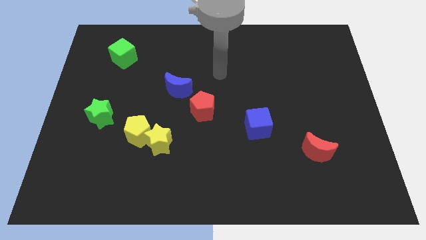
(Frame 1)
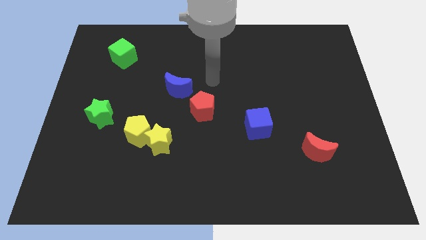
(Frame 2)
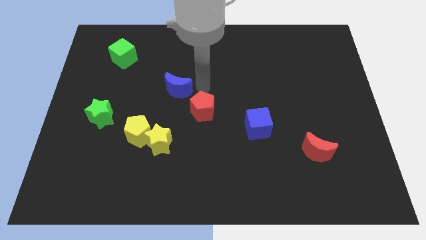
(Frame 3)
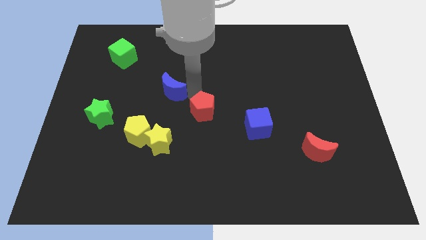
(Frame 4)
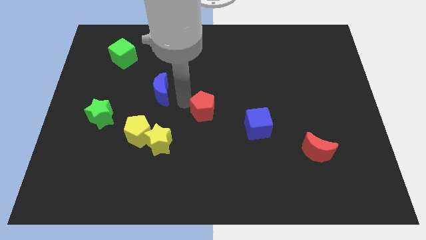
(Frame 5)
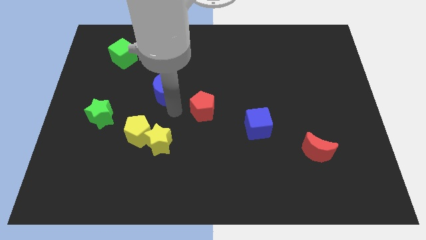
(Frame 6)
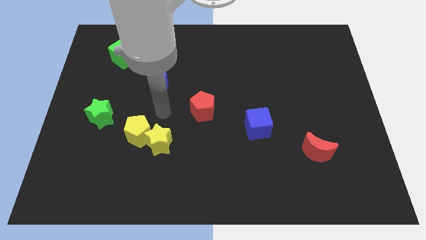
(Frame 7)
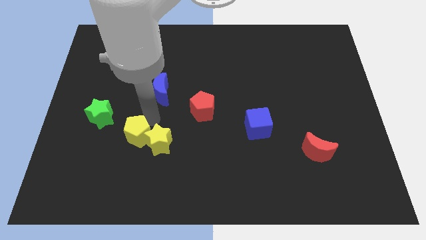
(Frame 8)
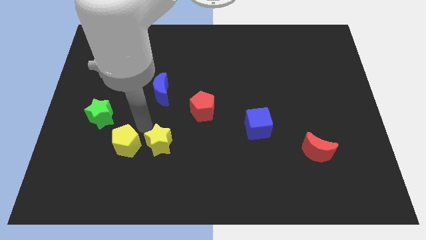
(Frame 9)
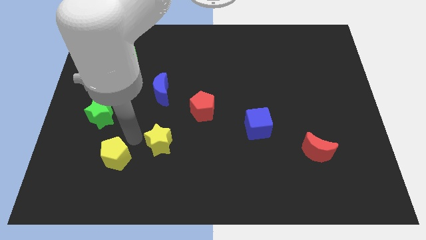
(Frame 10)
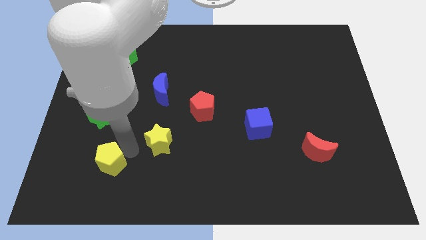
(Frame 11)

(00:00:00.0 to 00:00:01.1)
move the yellow star away from the yellow pentagon

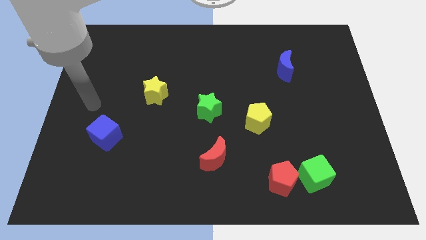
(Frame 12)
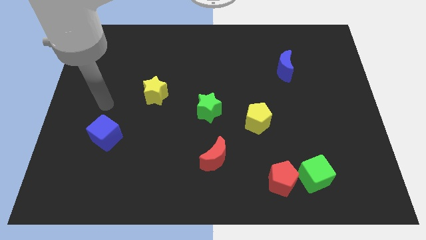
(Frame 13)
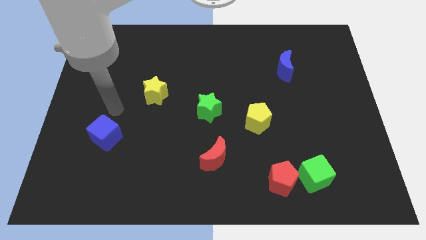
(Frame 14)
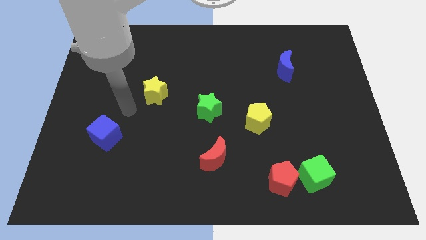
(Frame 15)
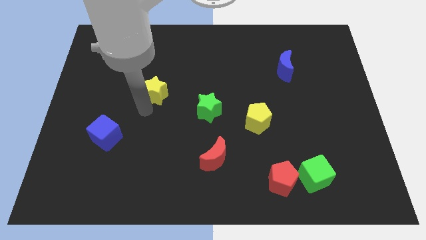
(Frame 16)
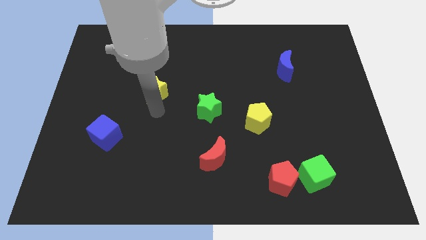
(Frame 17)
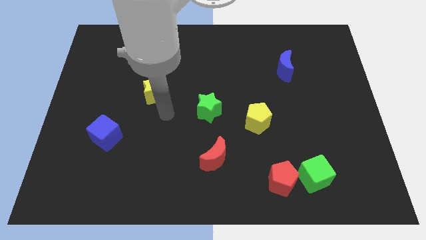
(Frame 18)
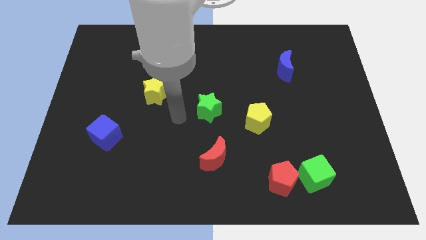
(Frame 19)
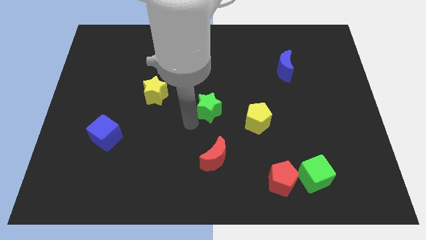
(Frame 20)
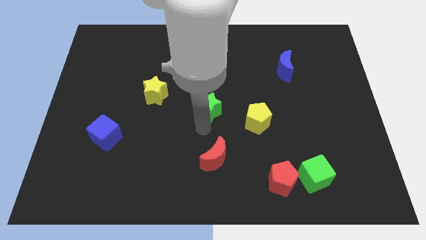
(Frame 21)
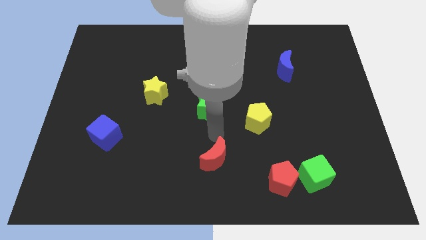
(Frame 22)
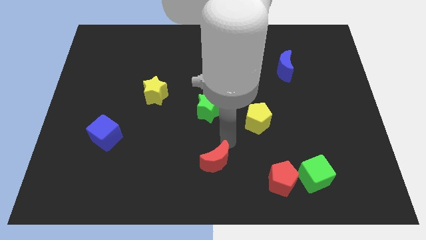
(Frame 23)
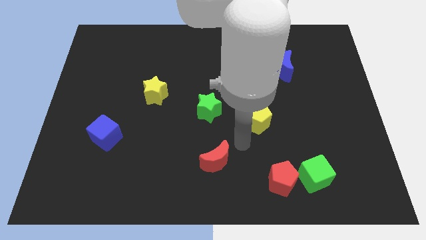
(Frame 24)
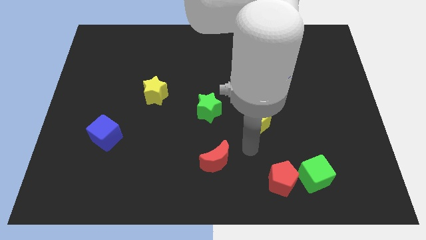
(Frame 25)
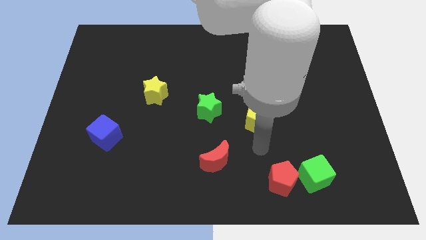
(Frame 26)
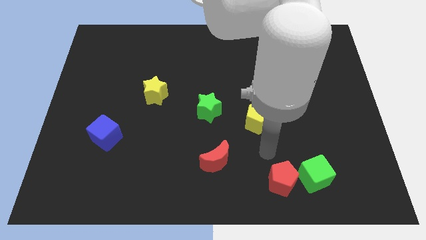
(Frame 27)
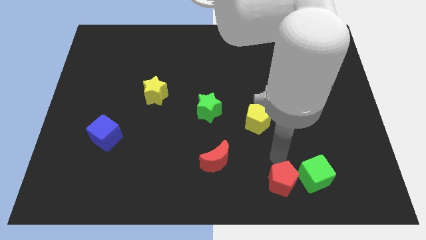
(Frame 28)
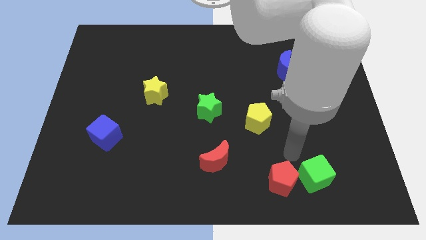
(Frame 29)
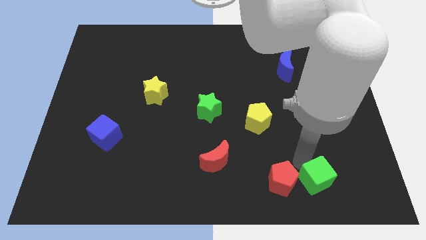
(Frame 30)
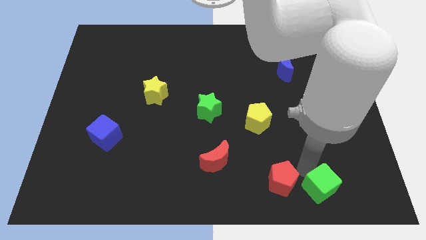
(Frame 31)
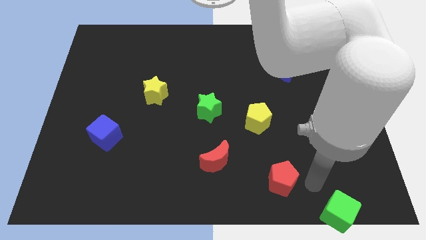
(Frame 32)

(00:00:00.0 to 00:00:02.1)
move the red pentagon away from the green cube

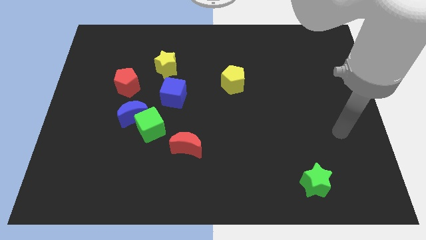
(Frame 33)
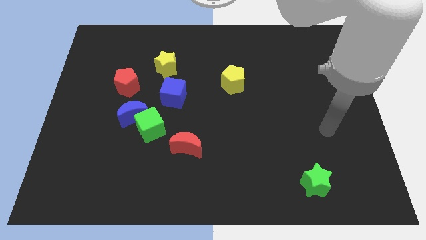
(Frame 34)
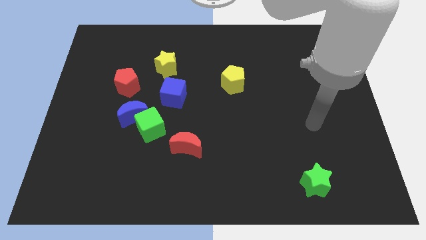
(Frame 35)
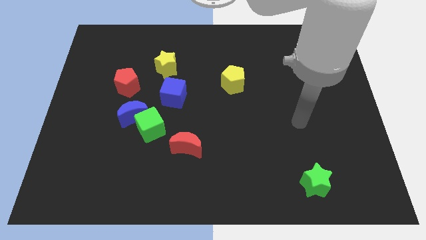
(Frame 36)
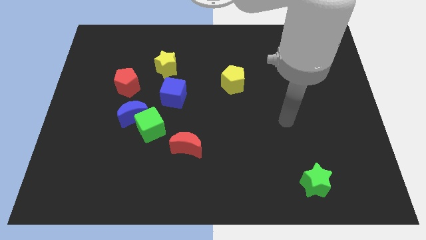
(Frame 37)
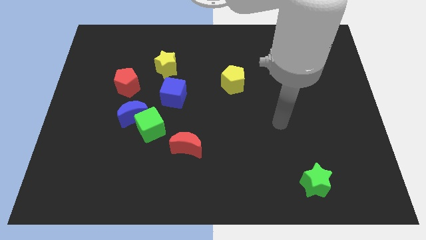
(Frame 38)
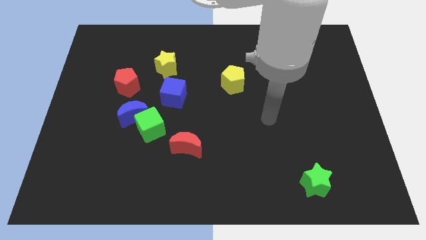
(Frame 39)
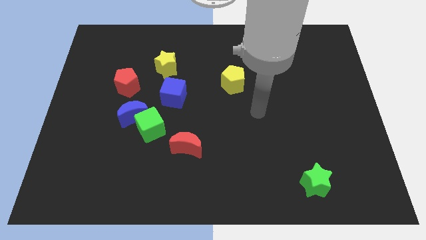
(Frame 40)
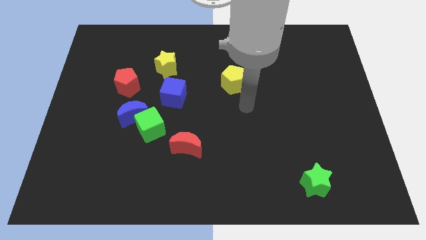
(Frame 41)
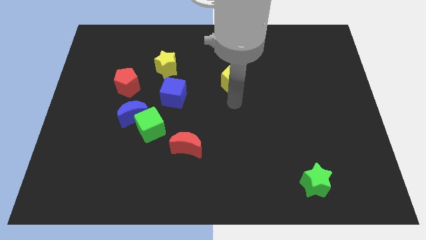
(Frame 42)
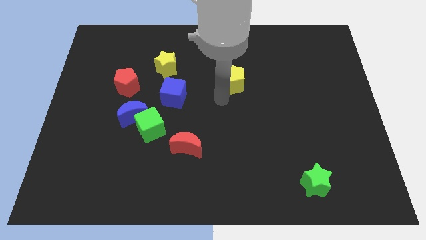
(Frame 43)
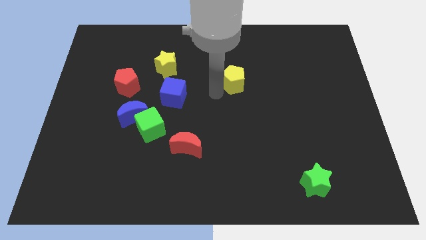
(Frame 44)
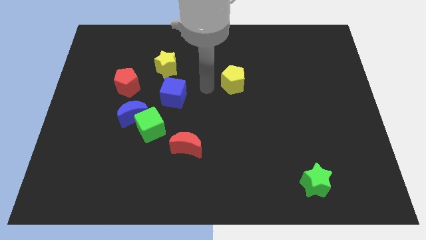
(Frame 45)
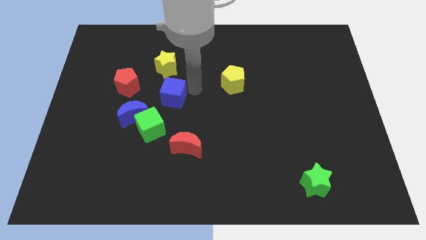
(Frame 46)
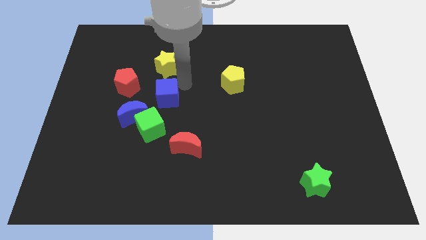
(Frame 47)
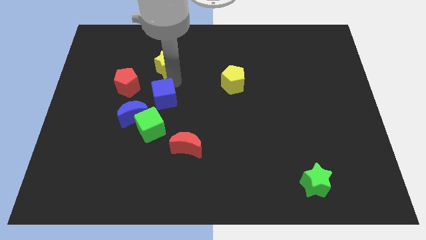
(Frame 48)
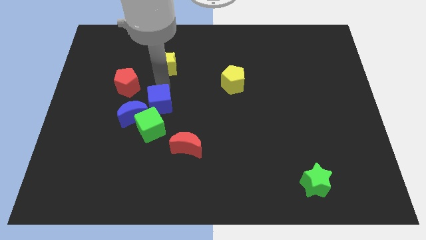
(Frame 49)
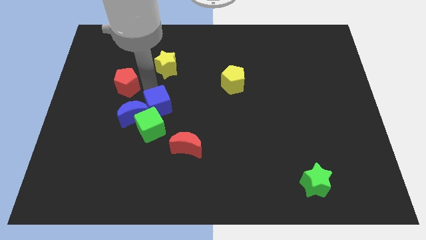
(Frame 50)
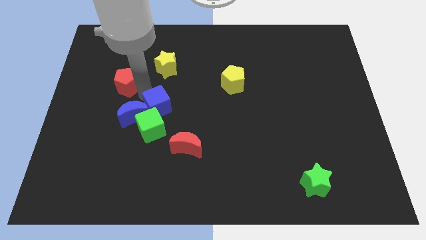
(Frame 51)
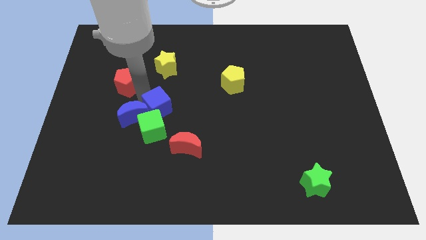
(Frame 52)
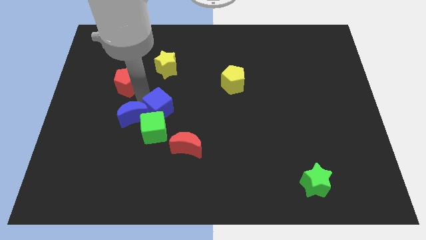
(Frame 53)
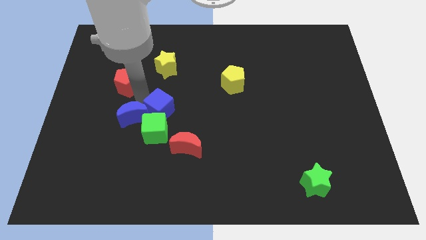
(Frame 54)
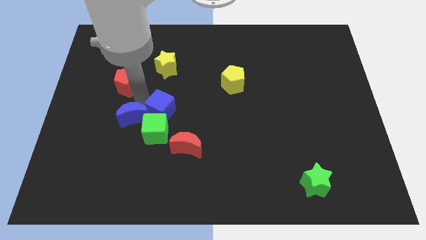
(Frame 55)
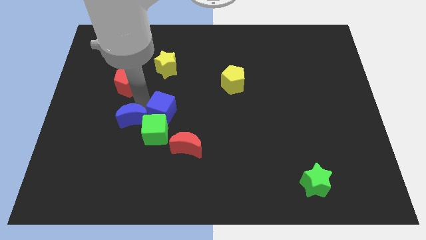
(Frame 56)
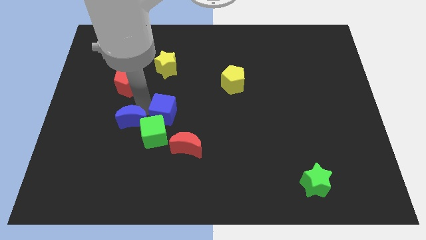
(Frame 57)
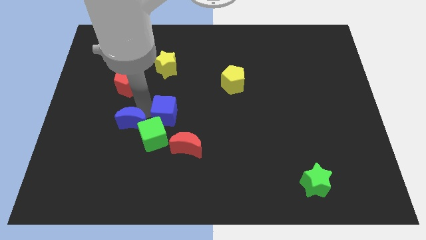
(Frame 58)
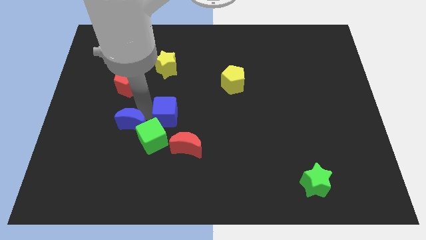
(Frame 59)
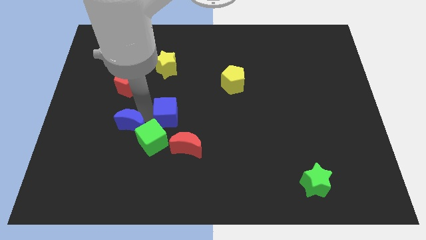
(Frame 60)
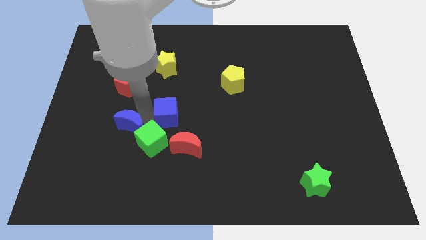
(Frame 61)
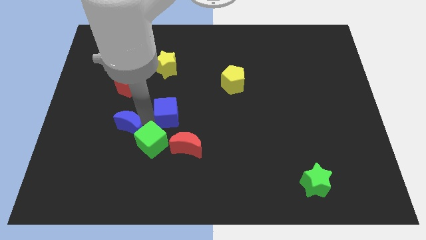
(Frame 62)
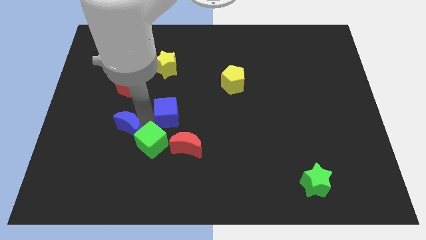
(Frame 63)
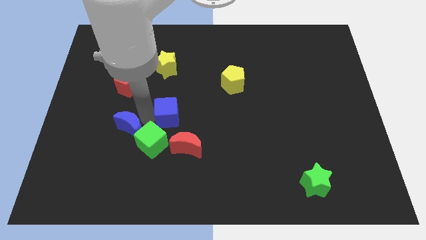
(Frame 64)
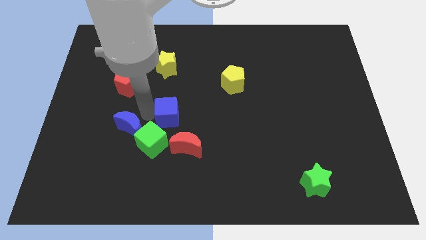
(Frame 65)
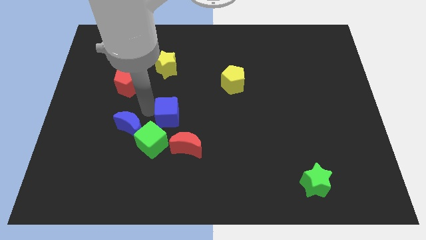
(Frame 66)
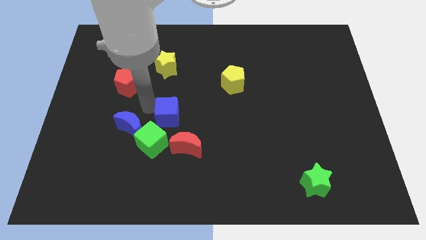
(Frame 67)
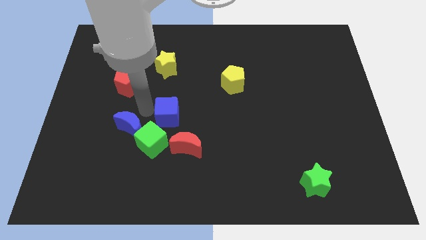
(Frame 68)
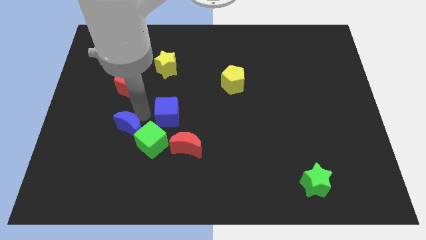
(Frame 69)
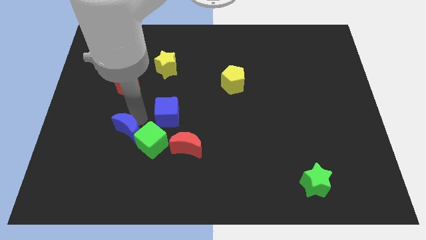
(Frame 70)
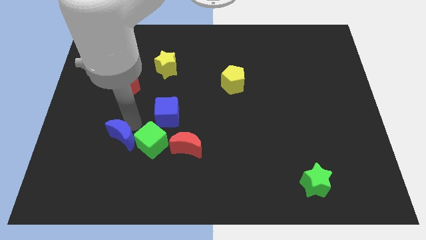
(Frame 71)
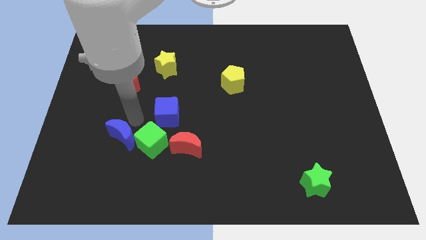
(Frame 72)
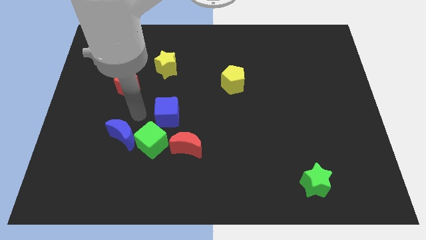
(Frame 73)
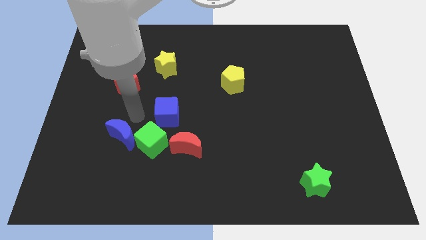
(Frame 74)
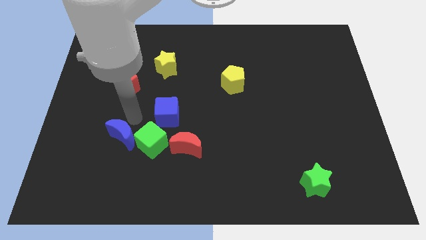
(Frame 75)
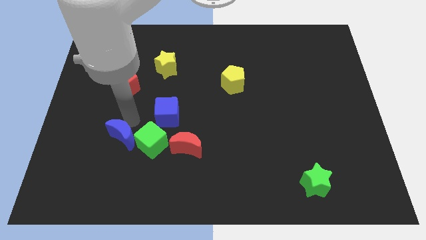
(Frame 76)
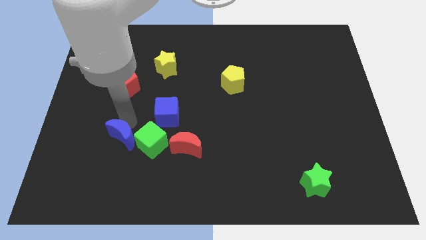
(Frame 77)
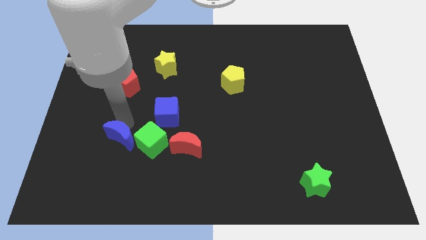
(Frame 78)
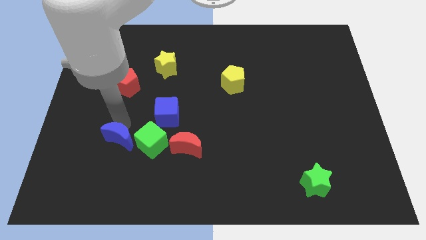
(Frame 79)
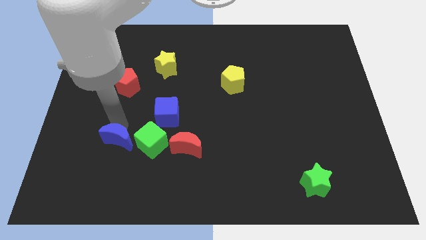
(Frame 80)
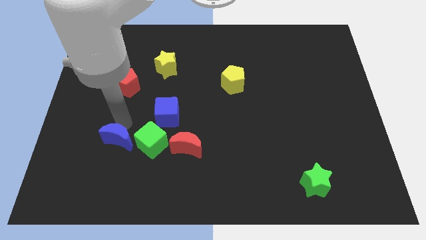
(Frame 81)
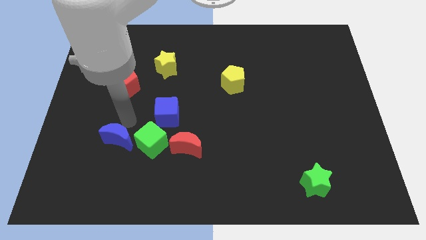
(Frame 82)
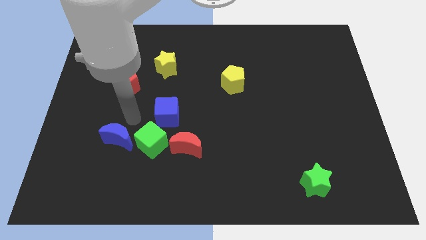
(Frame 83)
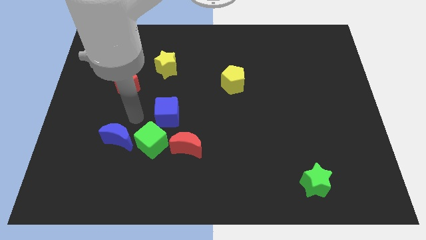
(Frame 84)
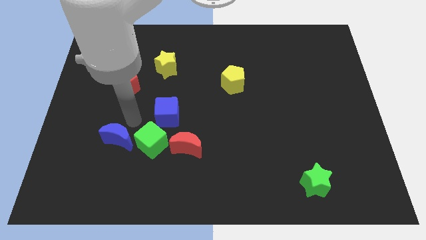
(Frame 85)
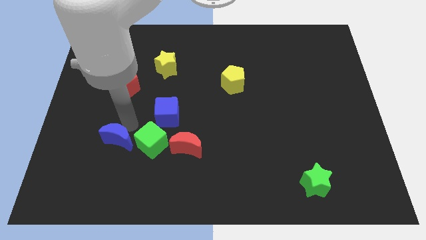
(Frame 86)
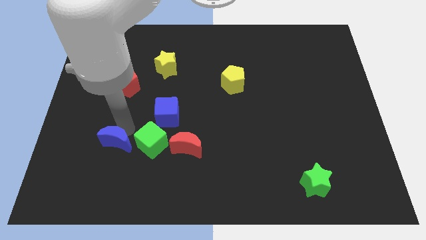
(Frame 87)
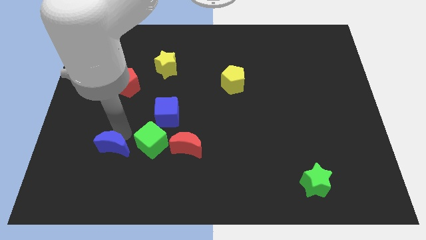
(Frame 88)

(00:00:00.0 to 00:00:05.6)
separate the blue moon from the green cube and red pentagon

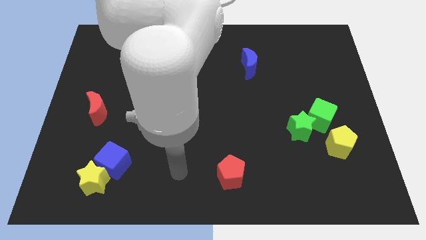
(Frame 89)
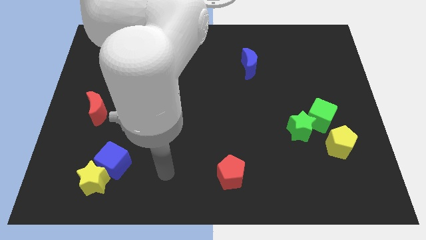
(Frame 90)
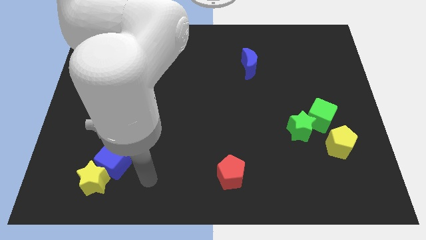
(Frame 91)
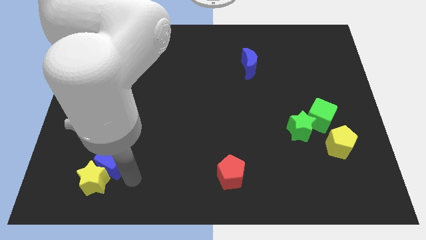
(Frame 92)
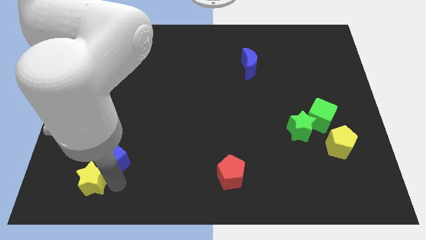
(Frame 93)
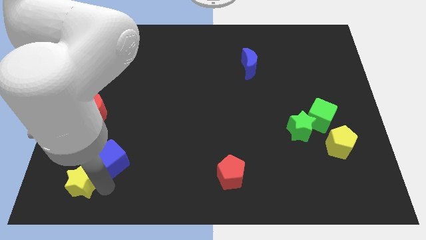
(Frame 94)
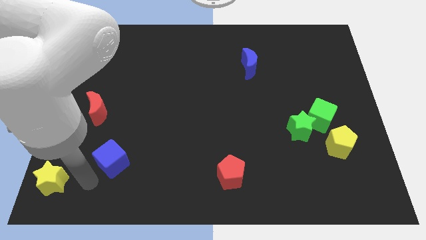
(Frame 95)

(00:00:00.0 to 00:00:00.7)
pull the blue cube apart from the yellow star
